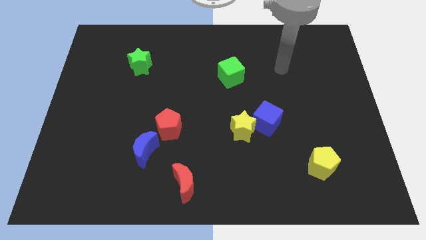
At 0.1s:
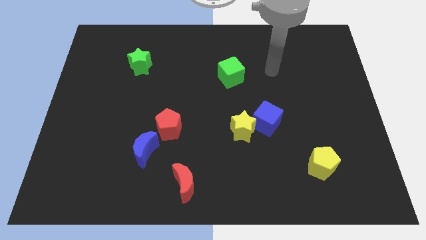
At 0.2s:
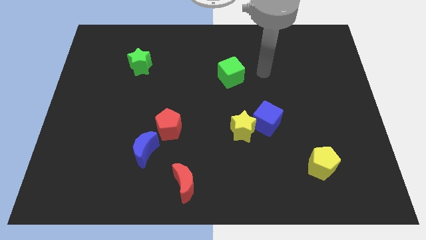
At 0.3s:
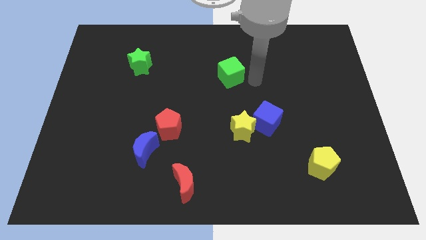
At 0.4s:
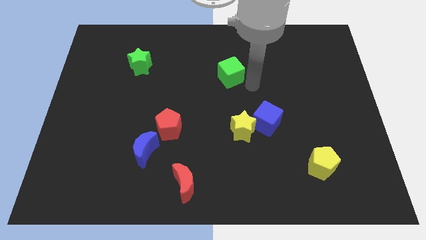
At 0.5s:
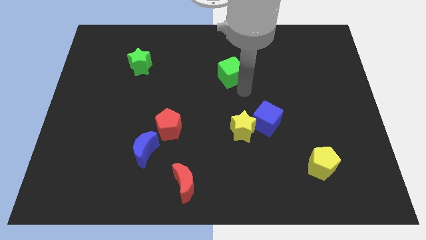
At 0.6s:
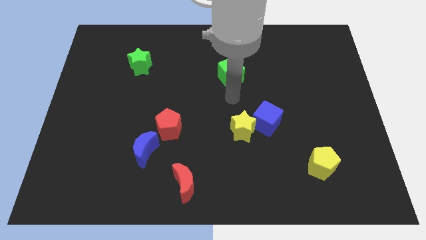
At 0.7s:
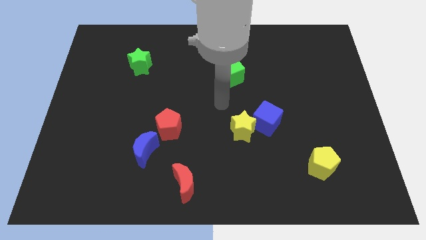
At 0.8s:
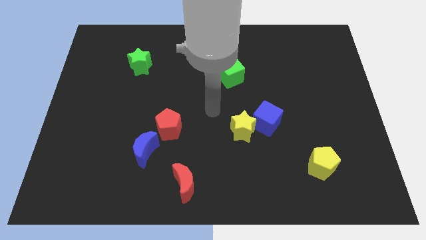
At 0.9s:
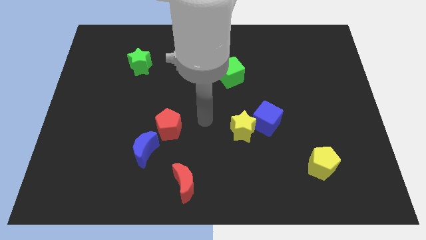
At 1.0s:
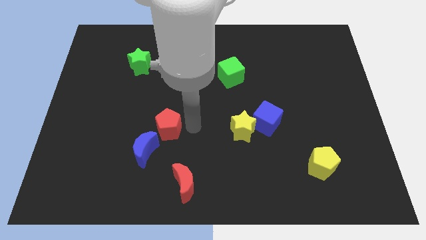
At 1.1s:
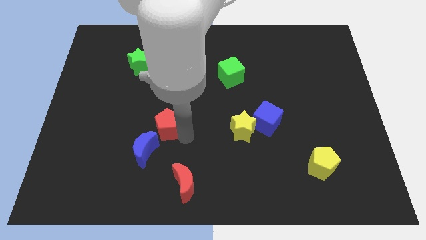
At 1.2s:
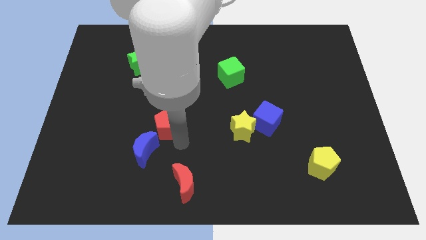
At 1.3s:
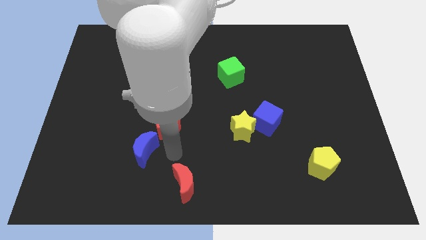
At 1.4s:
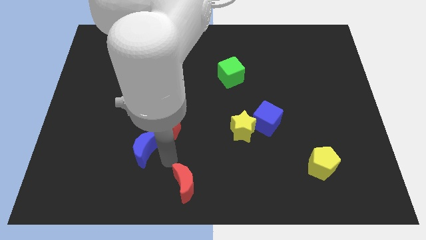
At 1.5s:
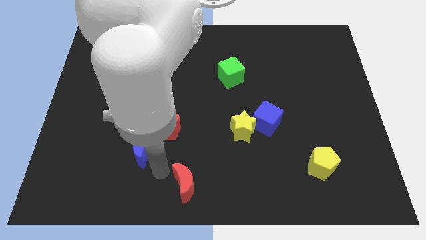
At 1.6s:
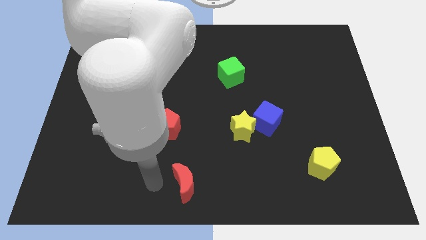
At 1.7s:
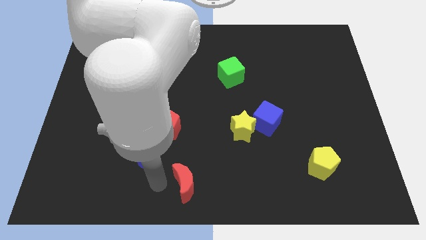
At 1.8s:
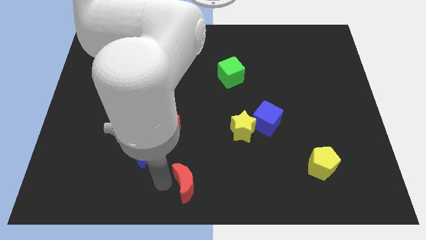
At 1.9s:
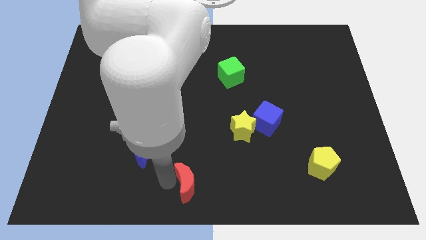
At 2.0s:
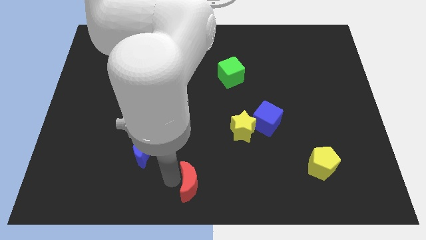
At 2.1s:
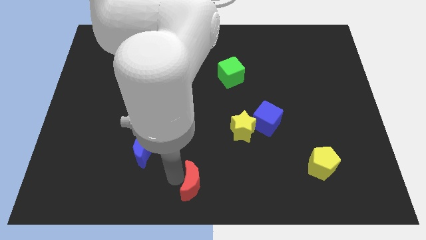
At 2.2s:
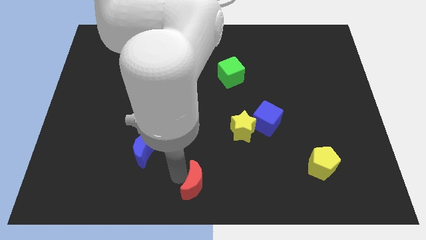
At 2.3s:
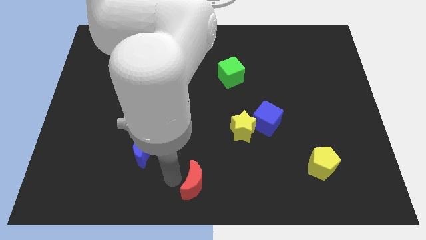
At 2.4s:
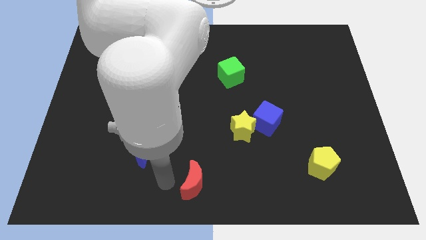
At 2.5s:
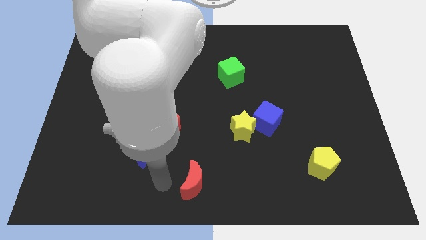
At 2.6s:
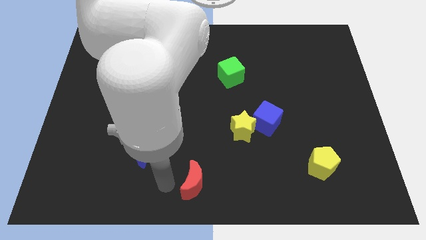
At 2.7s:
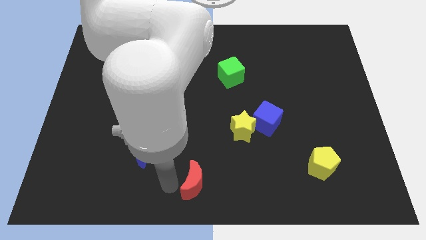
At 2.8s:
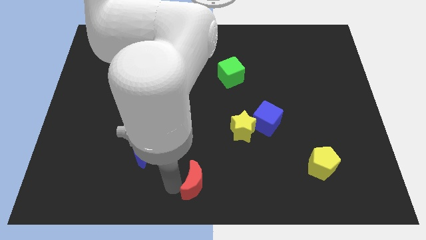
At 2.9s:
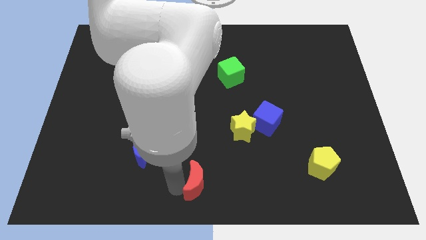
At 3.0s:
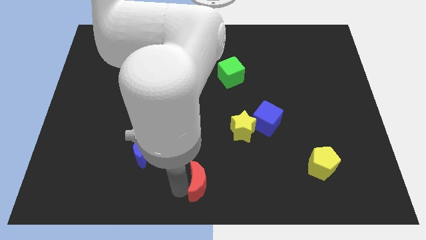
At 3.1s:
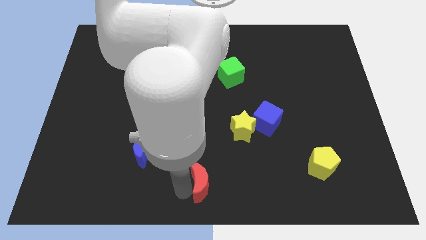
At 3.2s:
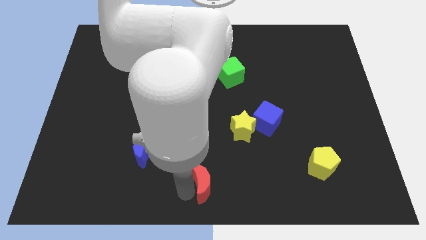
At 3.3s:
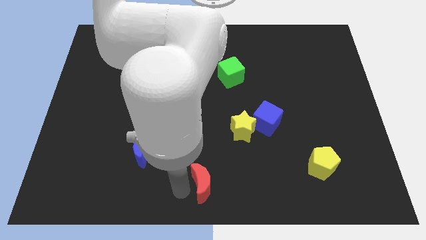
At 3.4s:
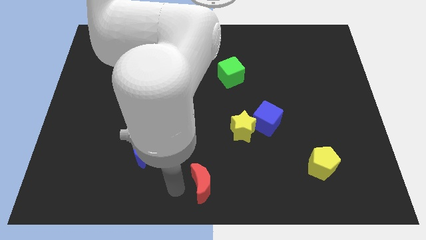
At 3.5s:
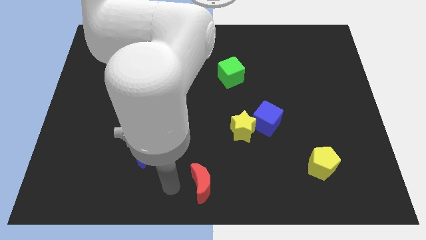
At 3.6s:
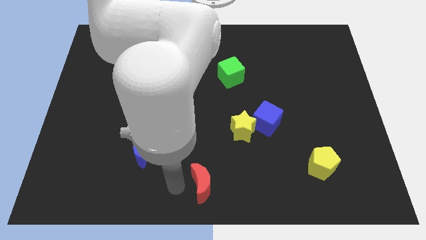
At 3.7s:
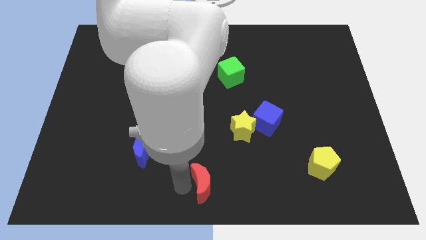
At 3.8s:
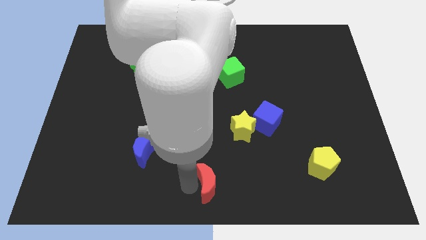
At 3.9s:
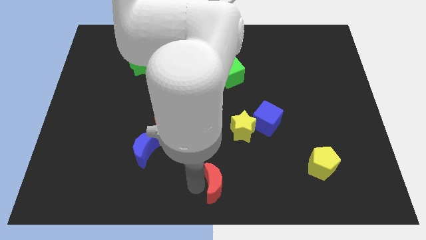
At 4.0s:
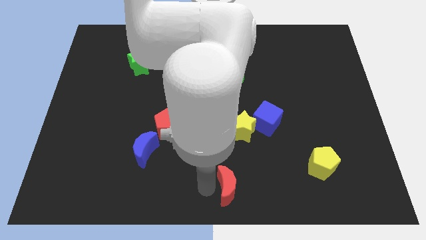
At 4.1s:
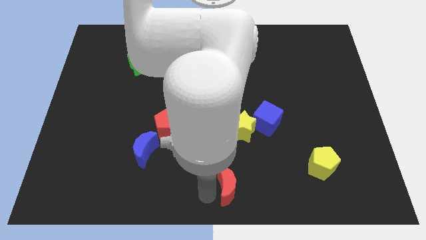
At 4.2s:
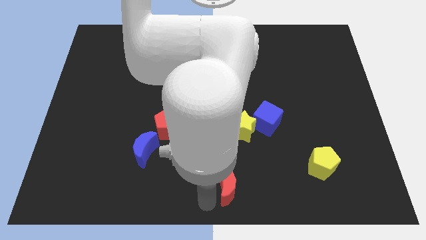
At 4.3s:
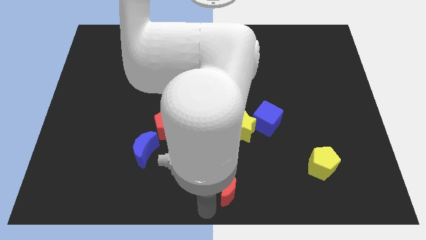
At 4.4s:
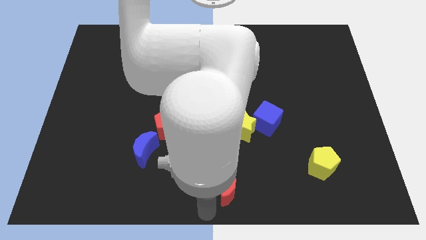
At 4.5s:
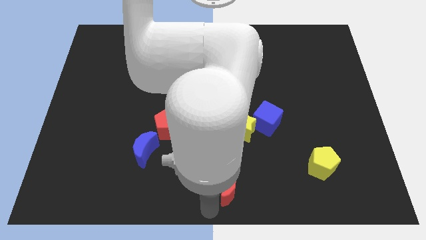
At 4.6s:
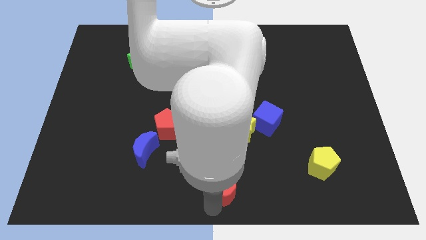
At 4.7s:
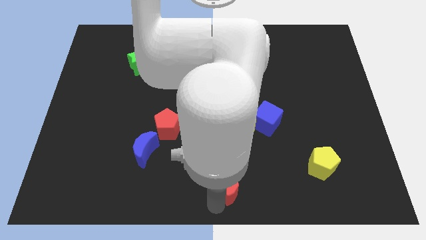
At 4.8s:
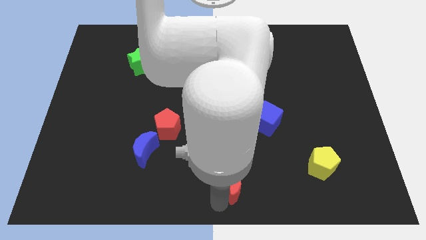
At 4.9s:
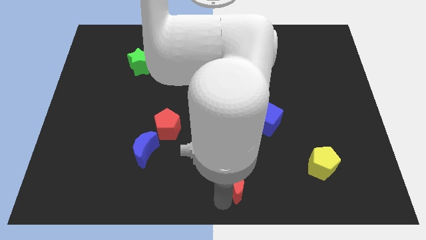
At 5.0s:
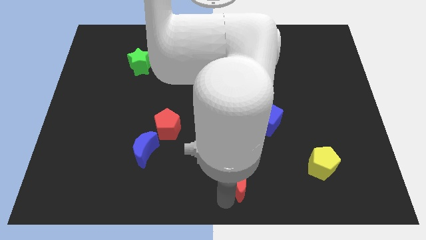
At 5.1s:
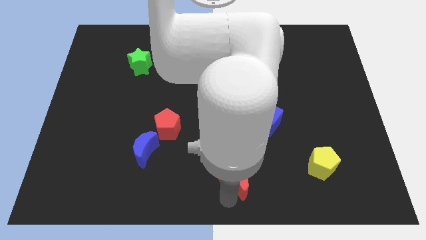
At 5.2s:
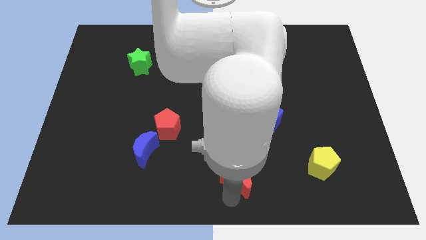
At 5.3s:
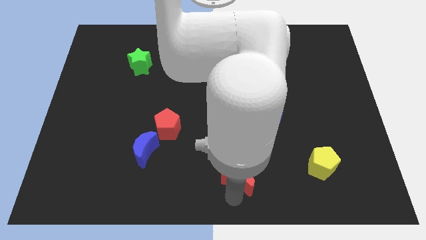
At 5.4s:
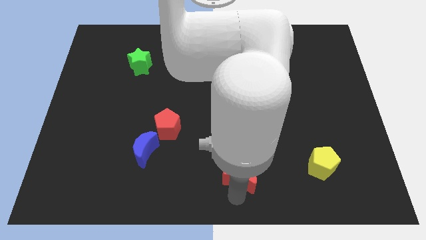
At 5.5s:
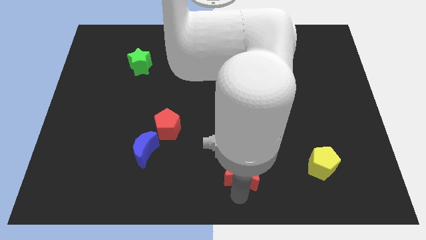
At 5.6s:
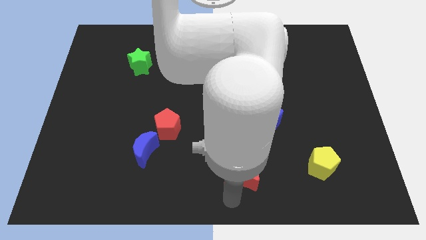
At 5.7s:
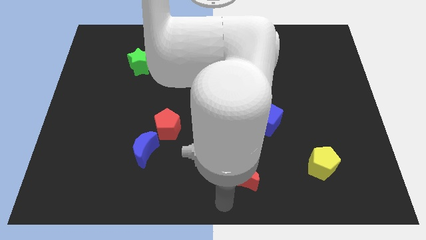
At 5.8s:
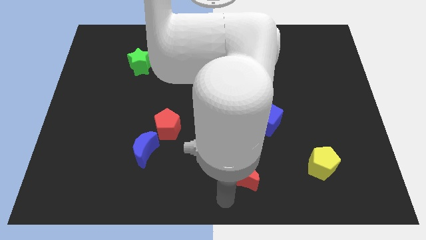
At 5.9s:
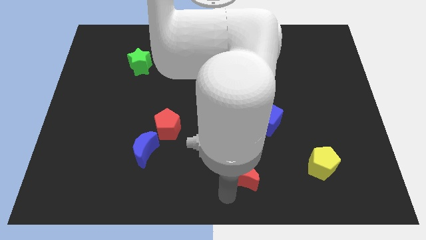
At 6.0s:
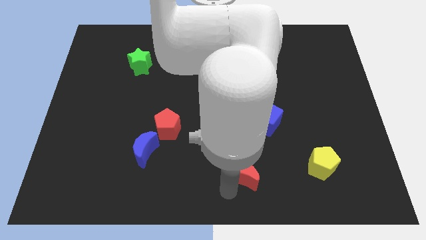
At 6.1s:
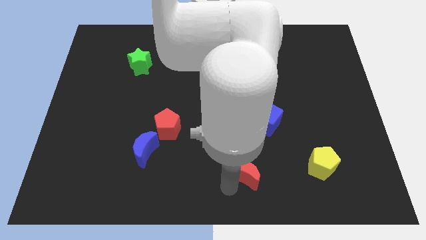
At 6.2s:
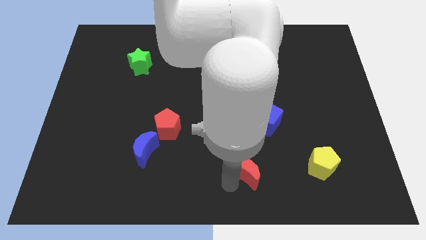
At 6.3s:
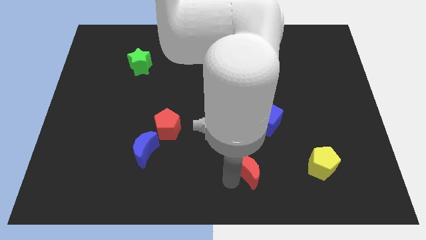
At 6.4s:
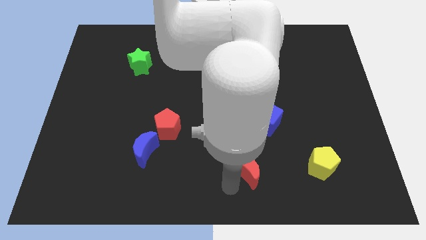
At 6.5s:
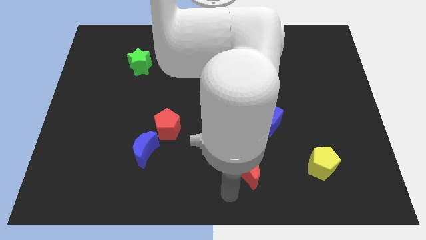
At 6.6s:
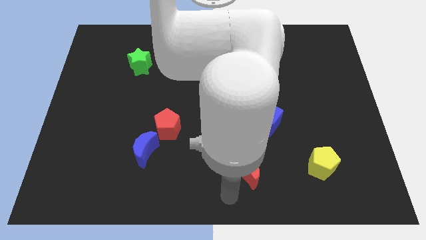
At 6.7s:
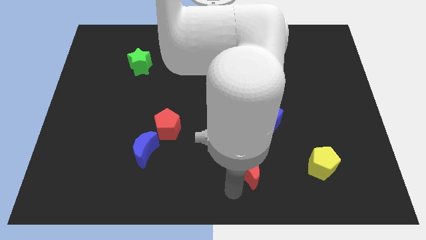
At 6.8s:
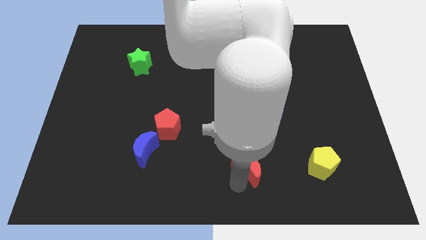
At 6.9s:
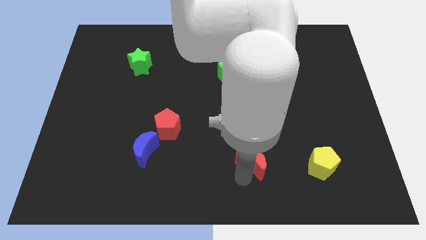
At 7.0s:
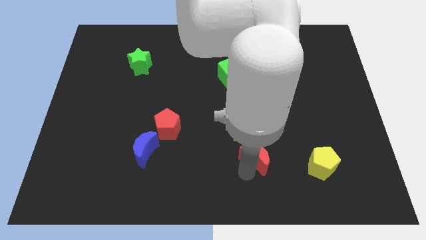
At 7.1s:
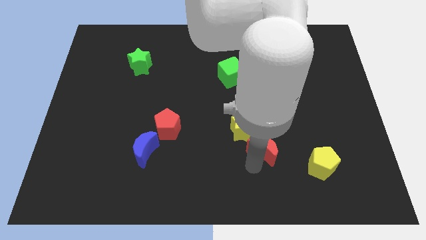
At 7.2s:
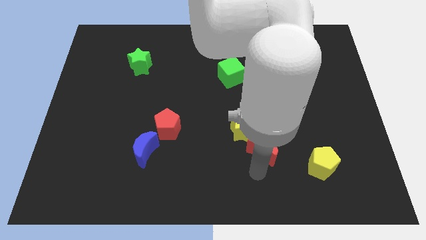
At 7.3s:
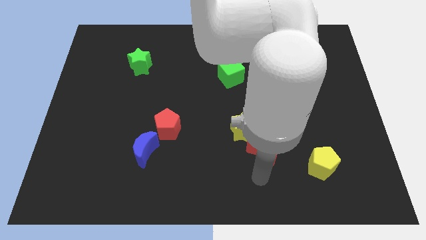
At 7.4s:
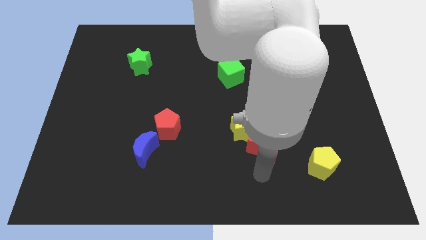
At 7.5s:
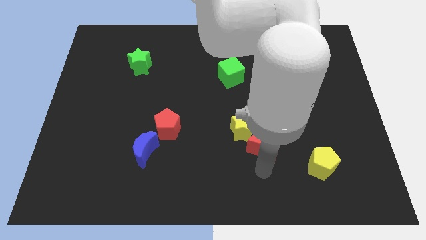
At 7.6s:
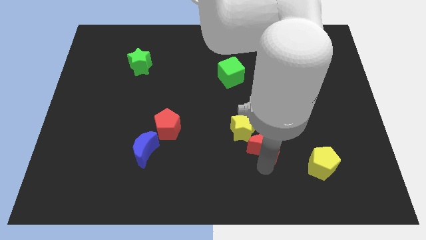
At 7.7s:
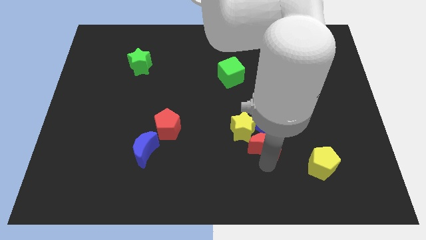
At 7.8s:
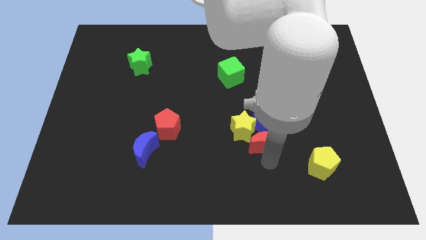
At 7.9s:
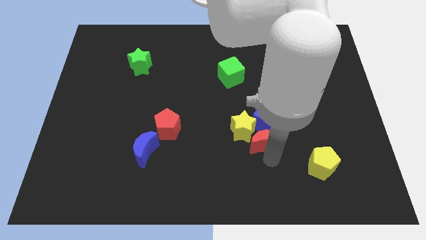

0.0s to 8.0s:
put the red moon to the blue cube
